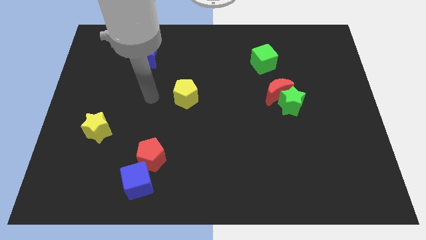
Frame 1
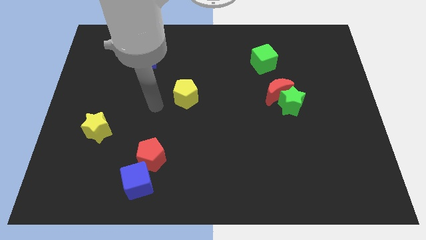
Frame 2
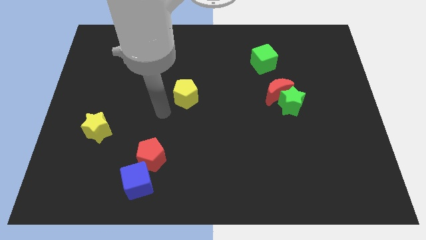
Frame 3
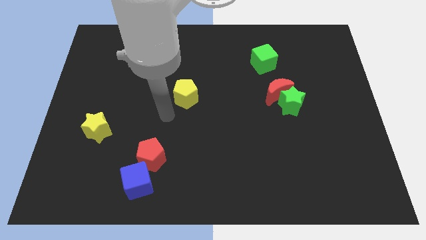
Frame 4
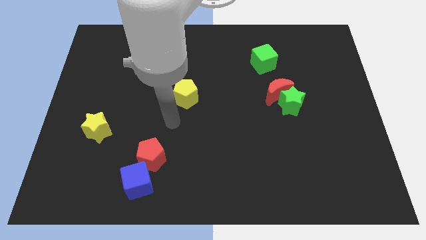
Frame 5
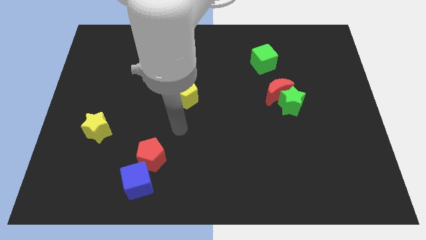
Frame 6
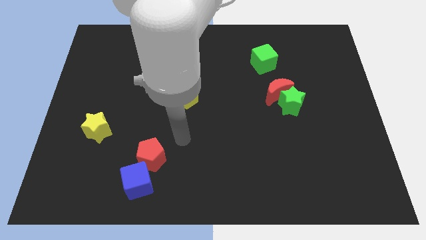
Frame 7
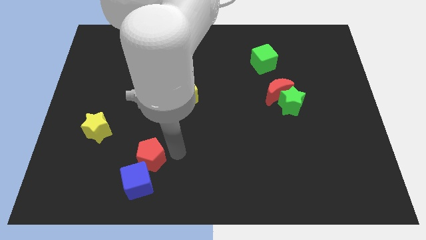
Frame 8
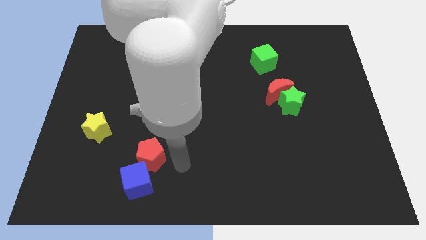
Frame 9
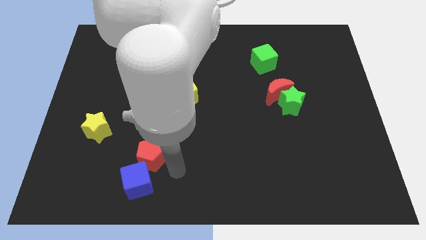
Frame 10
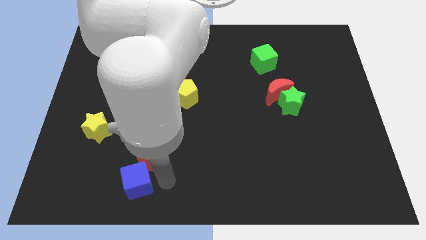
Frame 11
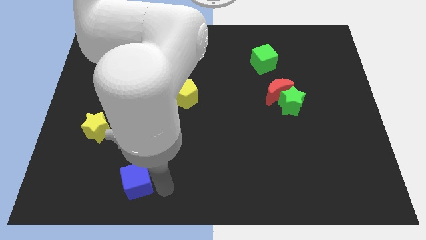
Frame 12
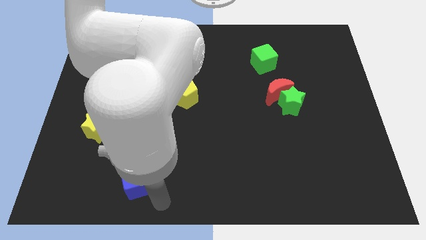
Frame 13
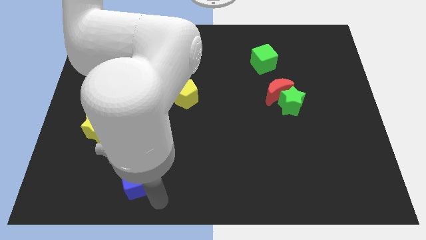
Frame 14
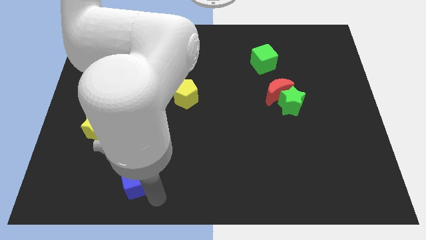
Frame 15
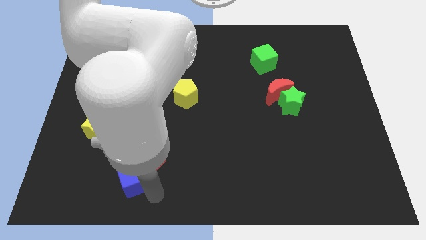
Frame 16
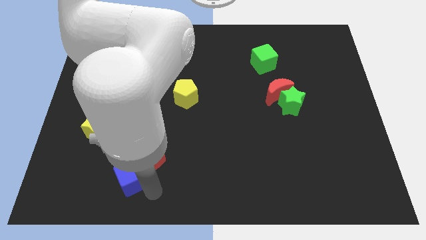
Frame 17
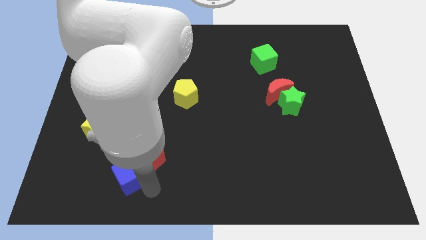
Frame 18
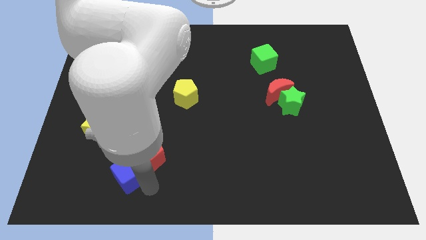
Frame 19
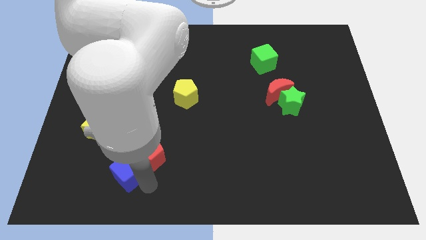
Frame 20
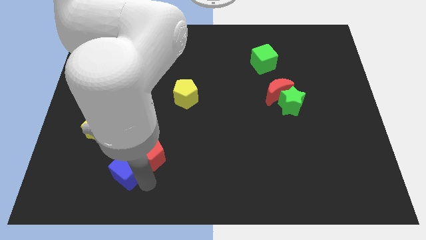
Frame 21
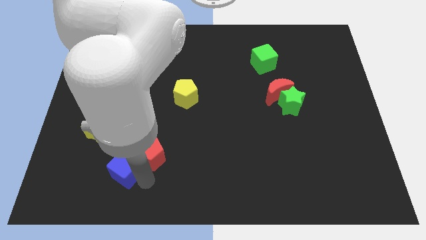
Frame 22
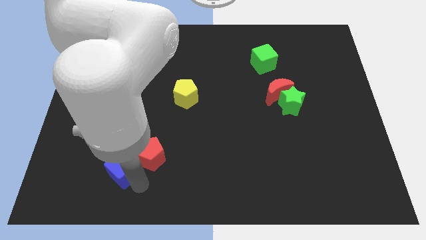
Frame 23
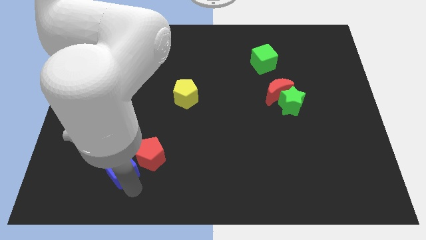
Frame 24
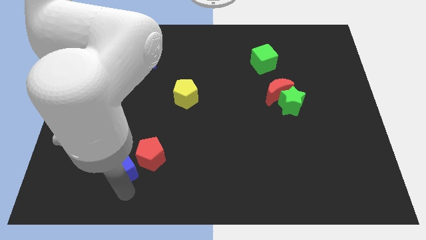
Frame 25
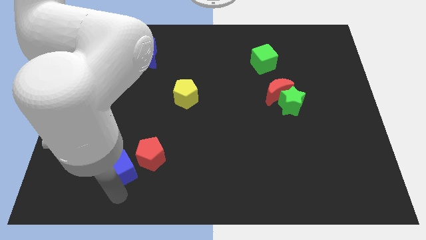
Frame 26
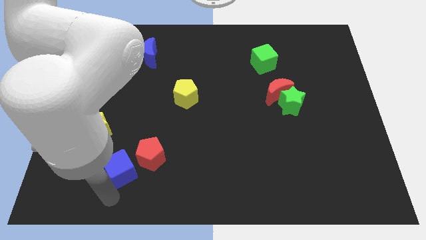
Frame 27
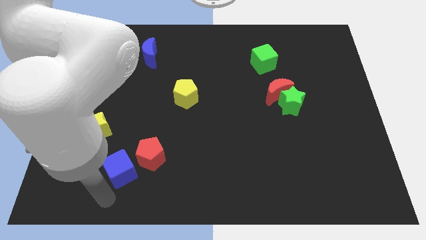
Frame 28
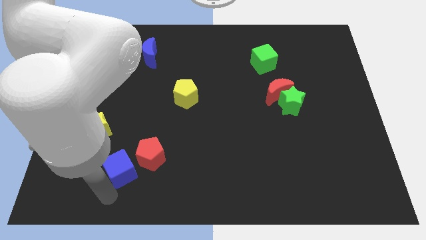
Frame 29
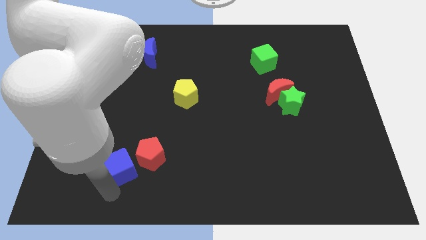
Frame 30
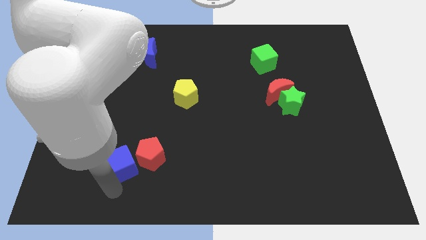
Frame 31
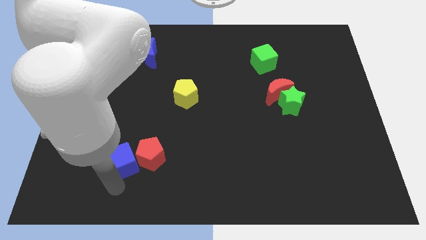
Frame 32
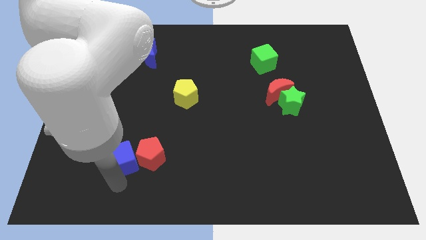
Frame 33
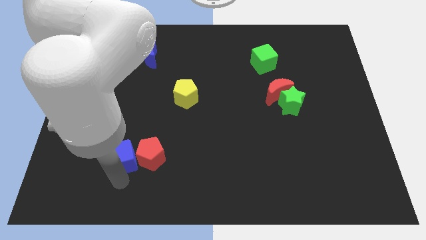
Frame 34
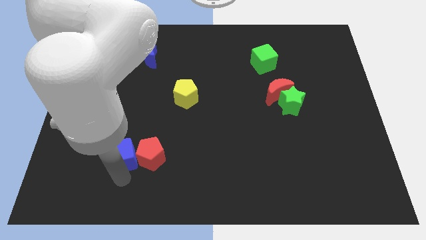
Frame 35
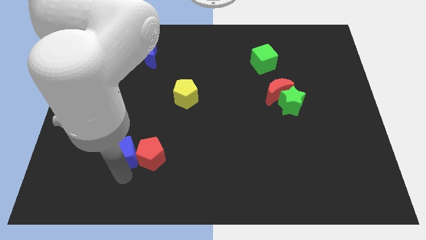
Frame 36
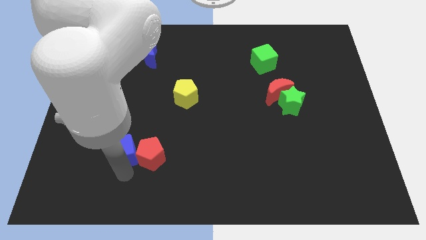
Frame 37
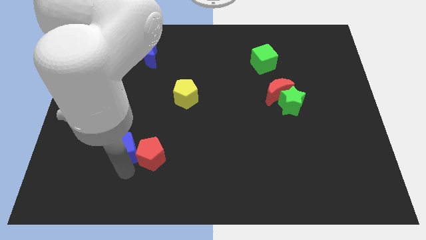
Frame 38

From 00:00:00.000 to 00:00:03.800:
slide the blue cube slightly upwards

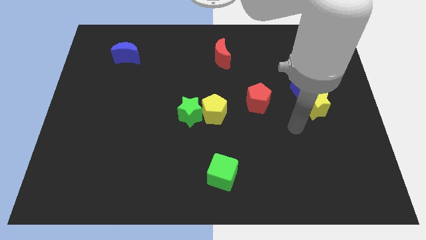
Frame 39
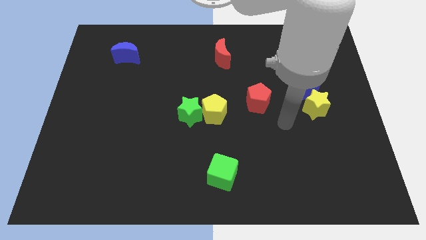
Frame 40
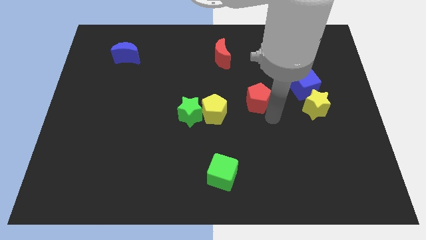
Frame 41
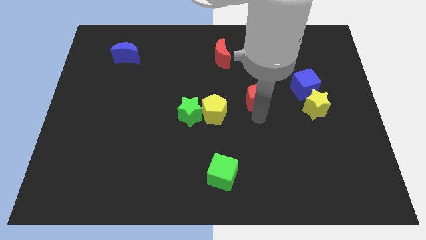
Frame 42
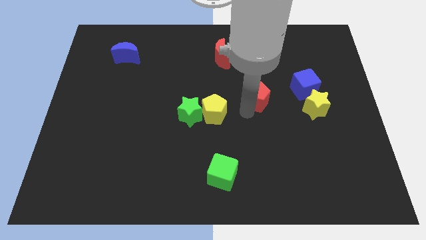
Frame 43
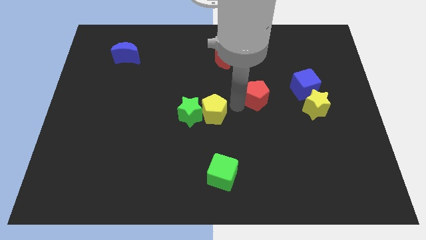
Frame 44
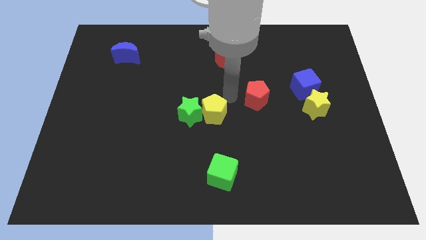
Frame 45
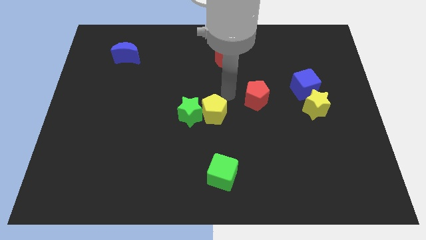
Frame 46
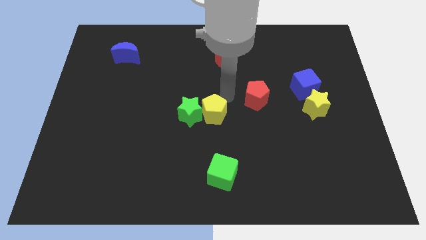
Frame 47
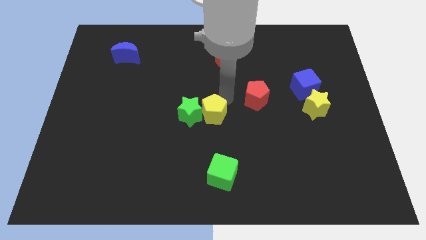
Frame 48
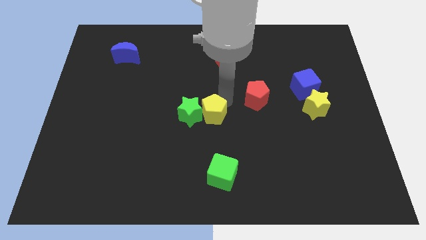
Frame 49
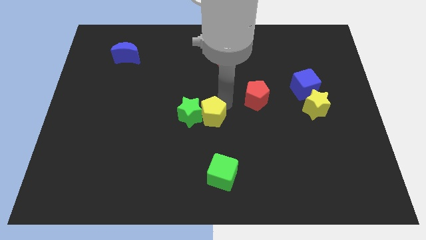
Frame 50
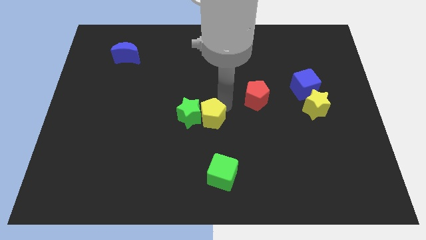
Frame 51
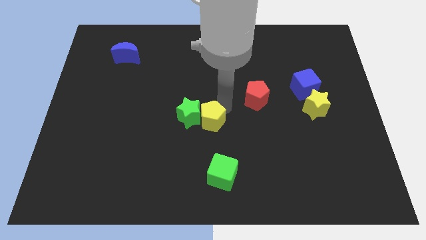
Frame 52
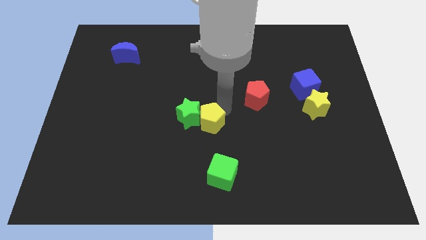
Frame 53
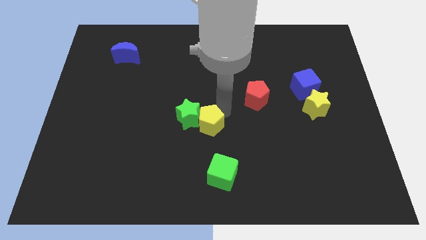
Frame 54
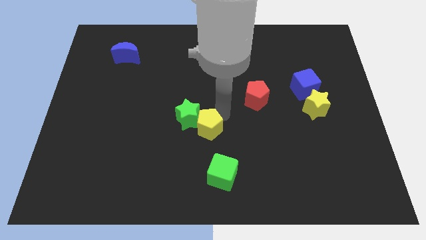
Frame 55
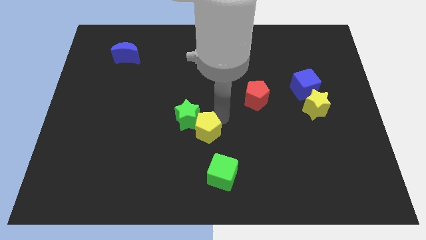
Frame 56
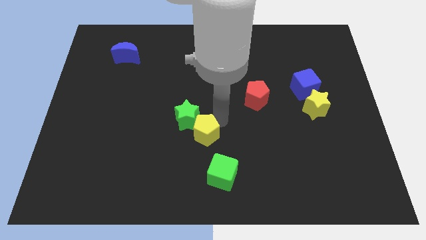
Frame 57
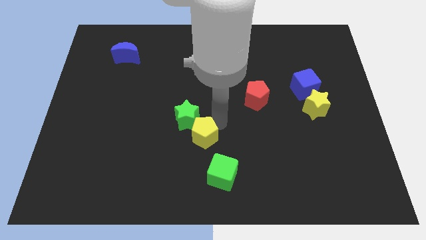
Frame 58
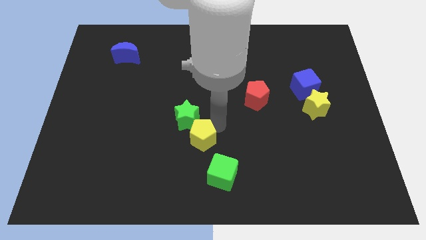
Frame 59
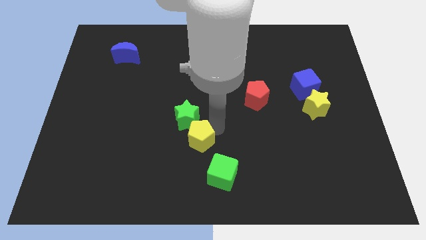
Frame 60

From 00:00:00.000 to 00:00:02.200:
slide the yellow pentagon somewhat down and then to the left

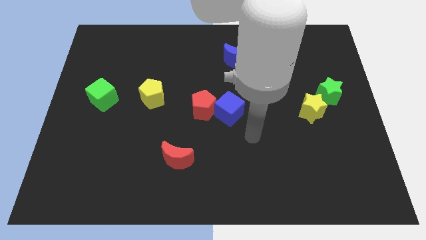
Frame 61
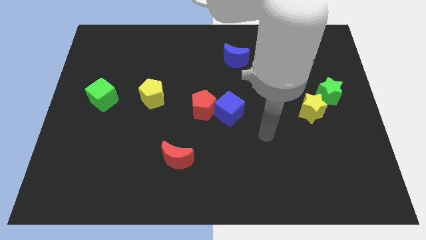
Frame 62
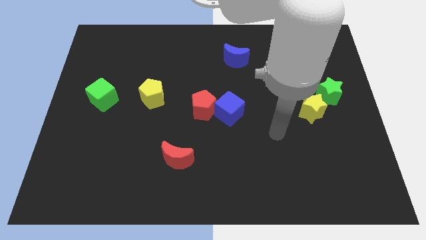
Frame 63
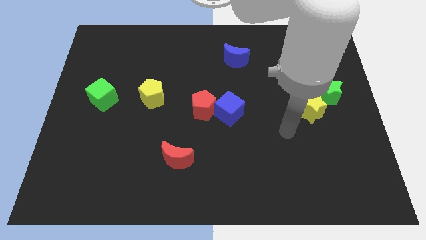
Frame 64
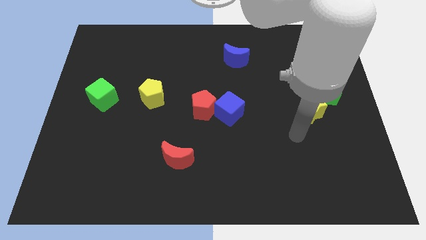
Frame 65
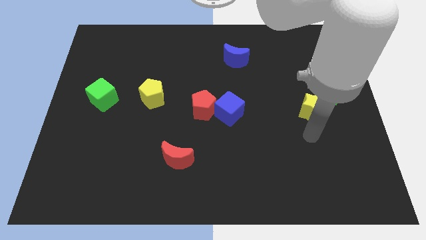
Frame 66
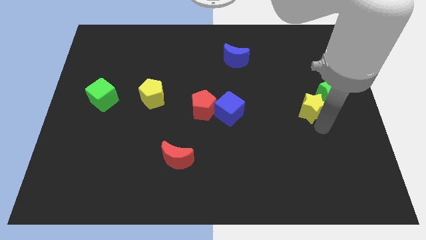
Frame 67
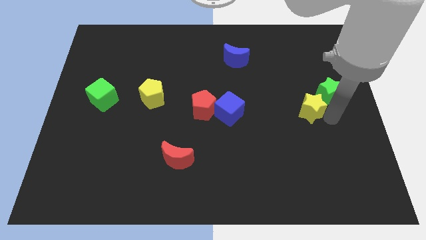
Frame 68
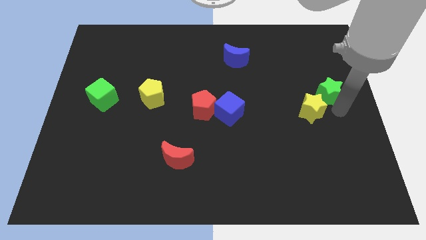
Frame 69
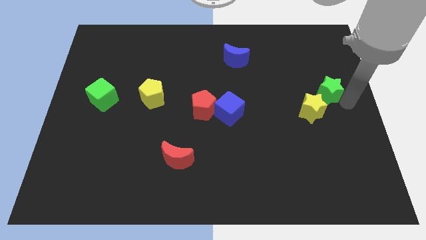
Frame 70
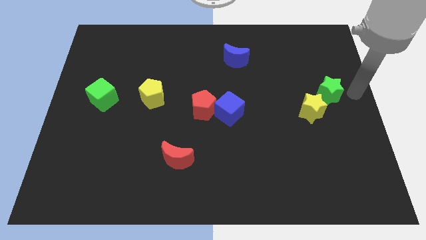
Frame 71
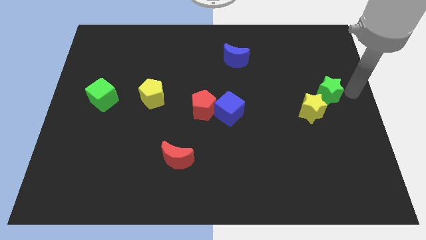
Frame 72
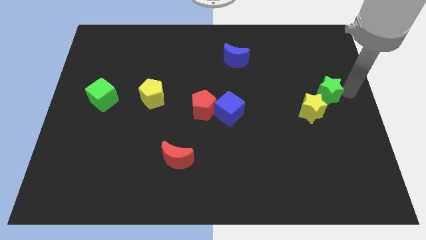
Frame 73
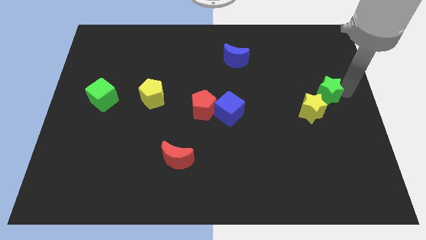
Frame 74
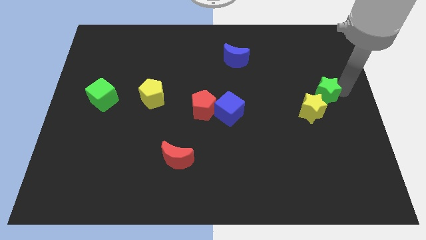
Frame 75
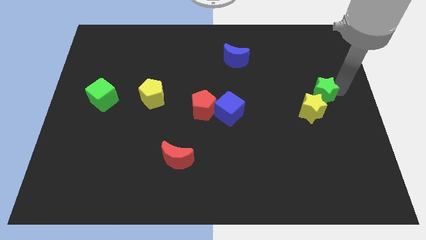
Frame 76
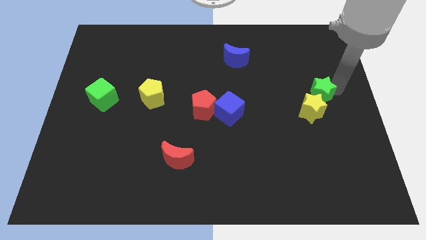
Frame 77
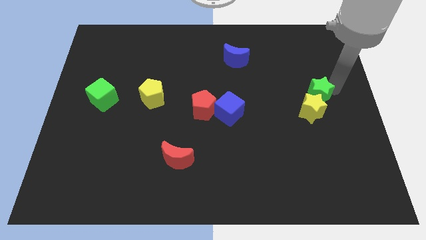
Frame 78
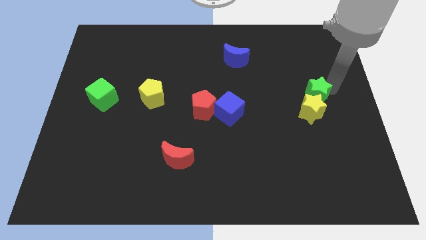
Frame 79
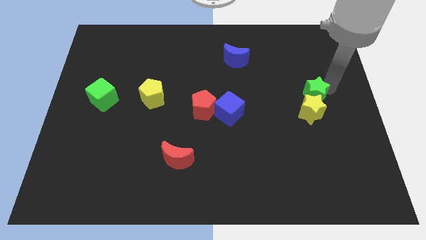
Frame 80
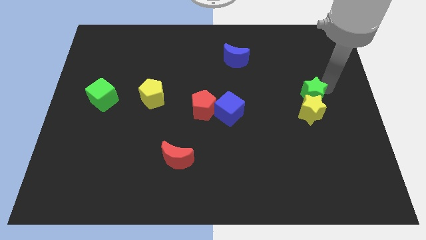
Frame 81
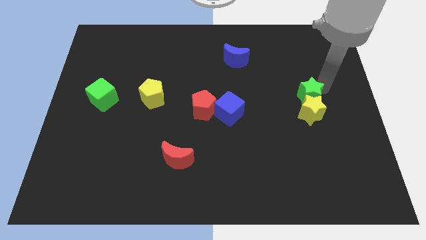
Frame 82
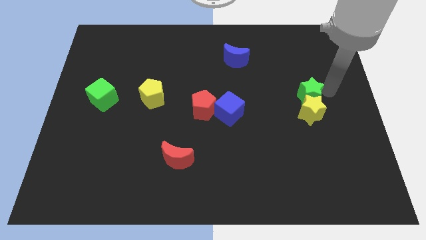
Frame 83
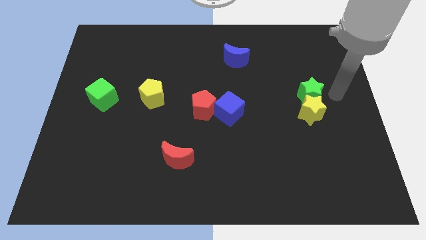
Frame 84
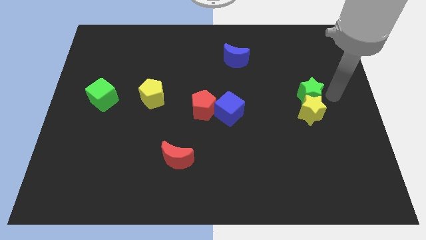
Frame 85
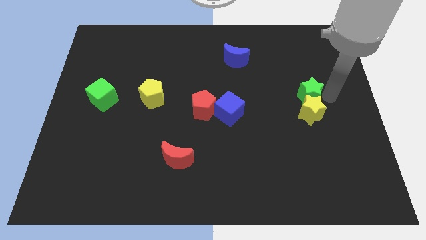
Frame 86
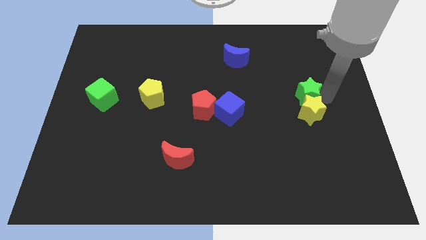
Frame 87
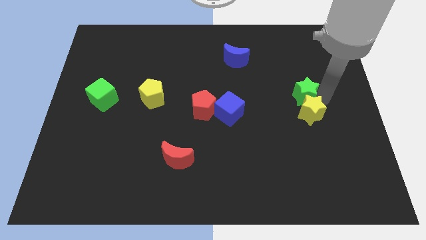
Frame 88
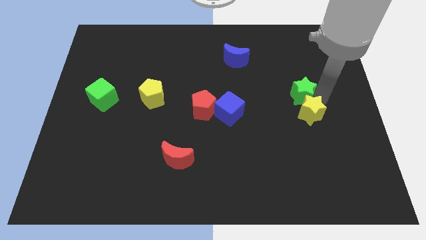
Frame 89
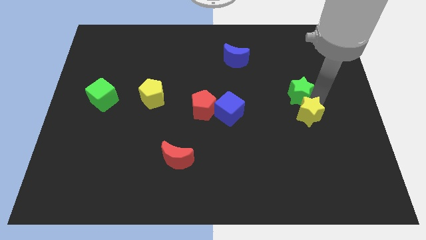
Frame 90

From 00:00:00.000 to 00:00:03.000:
slightly slide the green star left
